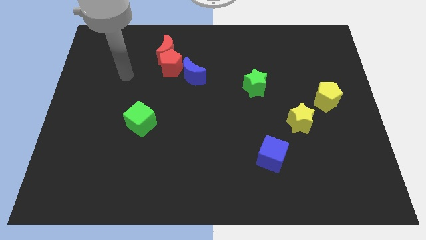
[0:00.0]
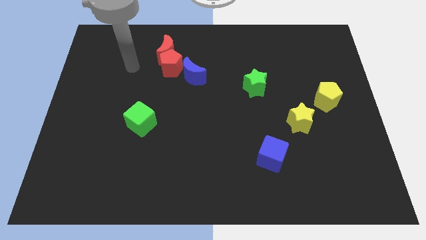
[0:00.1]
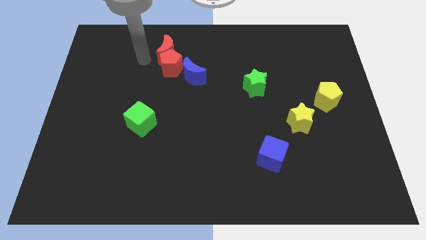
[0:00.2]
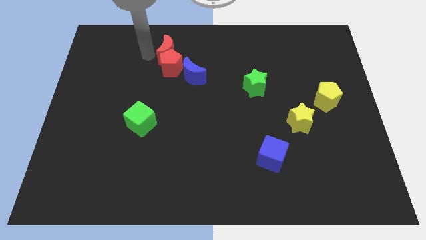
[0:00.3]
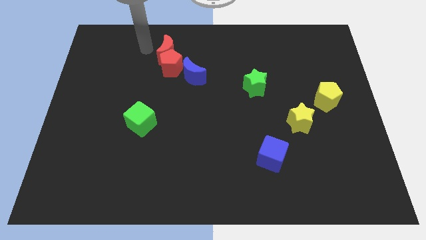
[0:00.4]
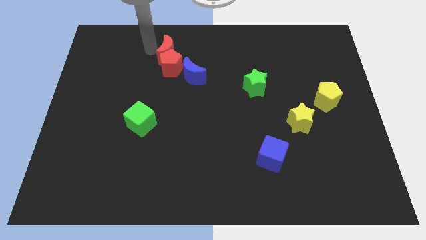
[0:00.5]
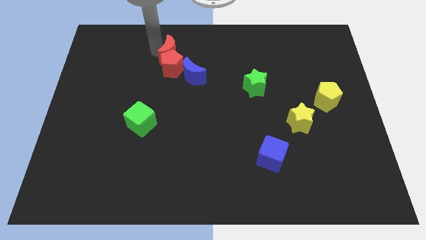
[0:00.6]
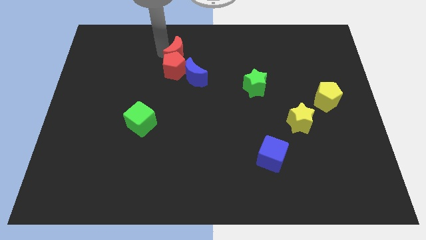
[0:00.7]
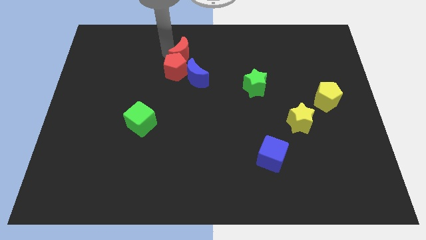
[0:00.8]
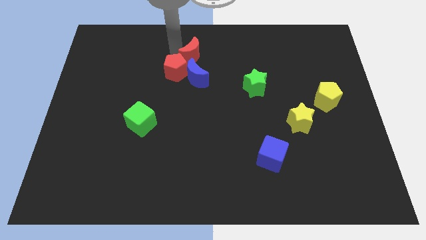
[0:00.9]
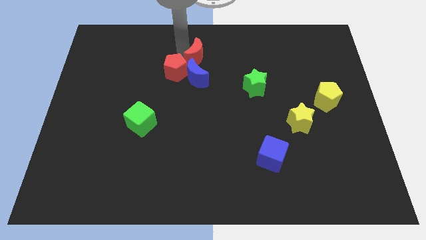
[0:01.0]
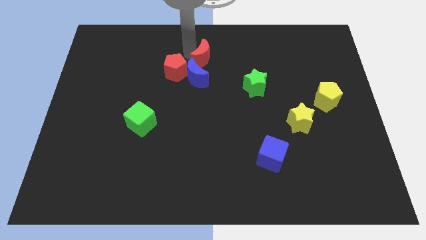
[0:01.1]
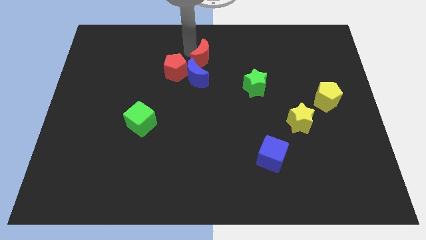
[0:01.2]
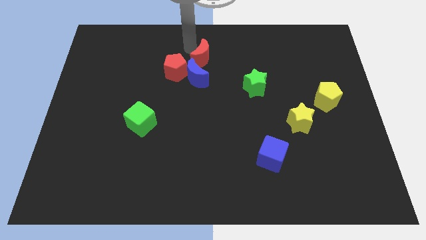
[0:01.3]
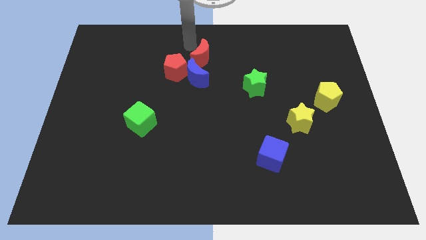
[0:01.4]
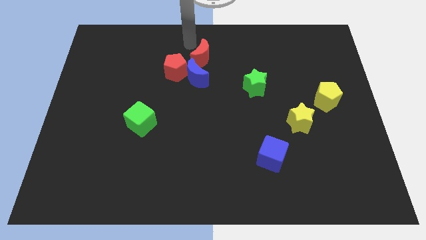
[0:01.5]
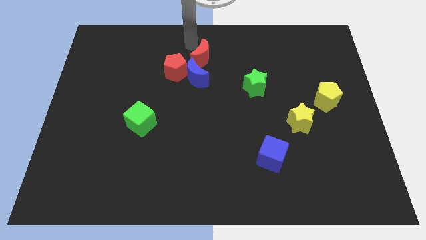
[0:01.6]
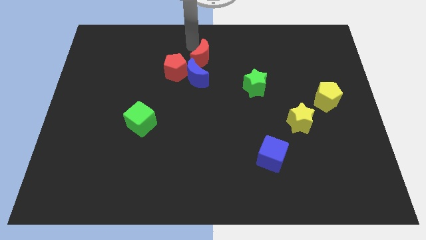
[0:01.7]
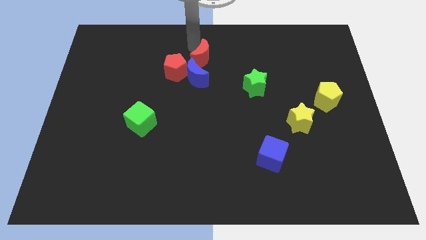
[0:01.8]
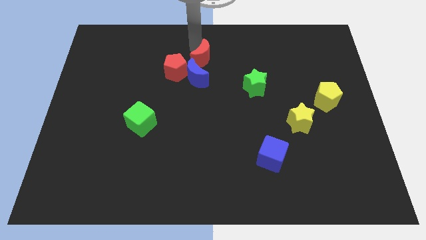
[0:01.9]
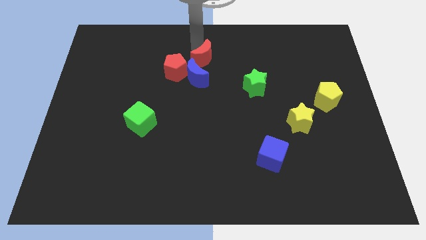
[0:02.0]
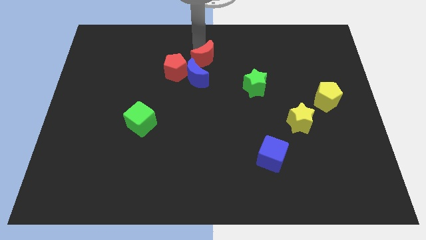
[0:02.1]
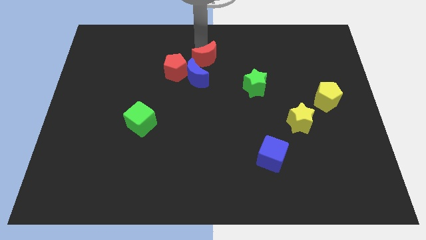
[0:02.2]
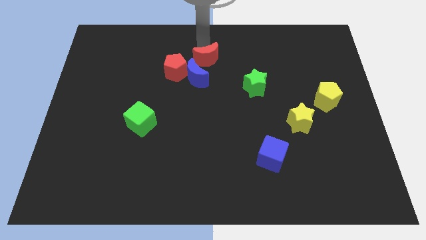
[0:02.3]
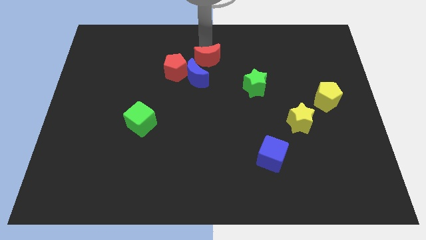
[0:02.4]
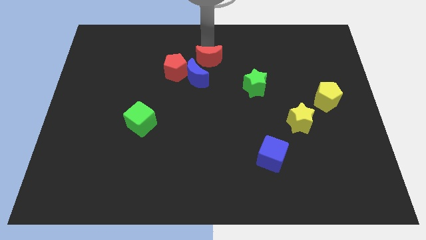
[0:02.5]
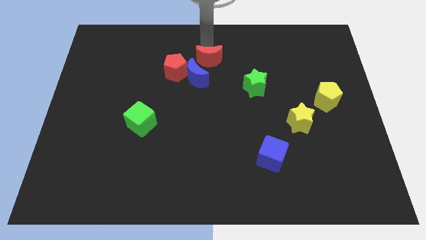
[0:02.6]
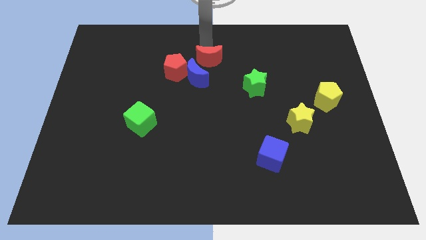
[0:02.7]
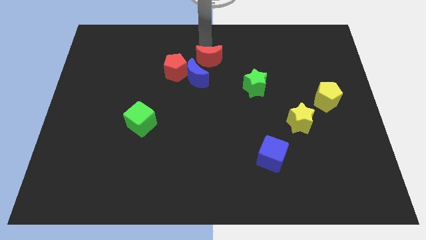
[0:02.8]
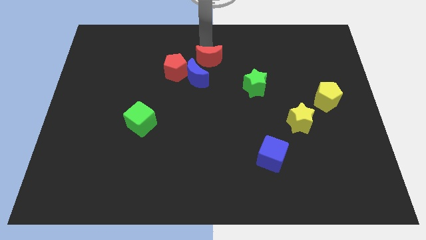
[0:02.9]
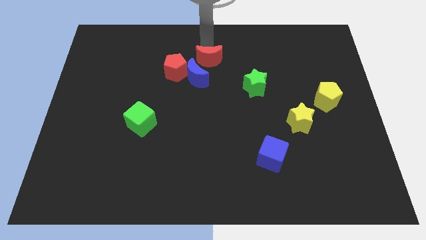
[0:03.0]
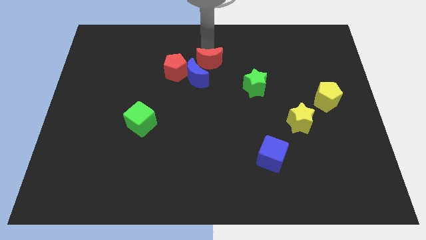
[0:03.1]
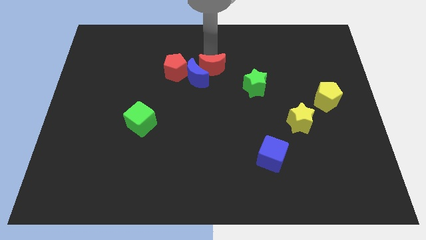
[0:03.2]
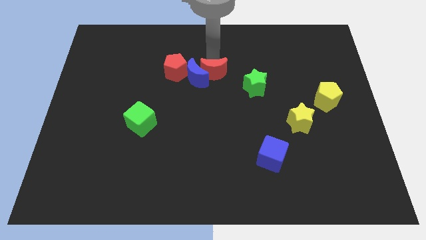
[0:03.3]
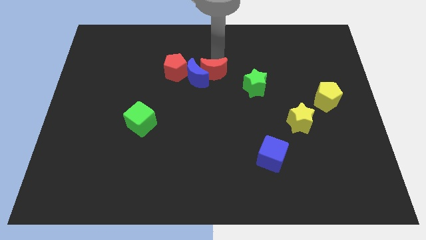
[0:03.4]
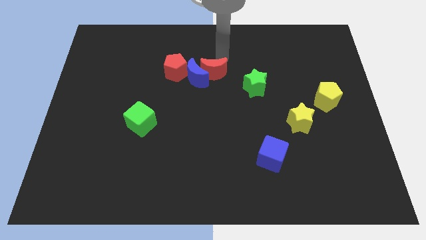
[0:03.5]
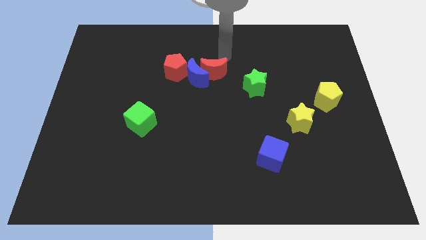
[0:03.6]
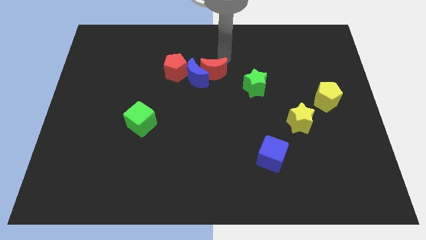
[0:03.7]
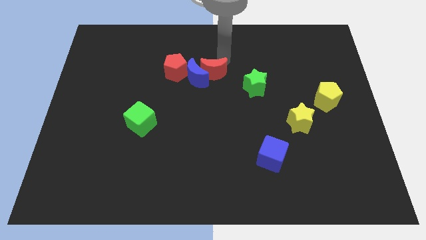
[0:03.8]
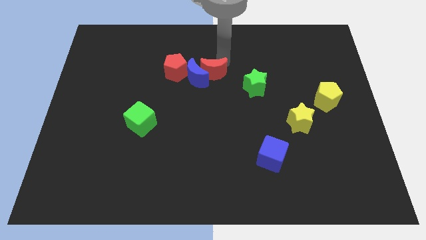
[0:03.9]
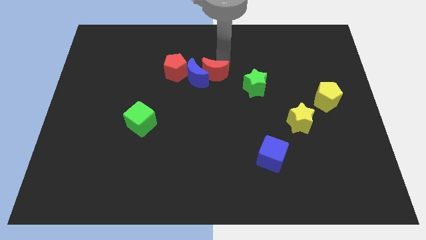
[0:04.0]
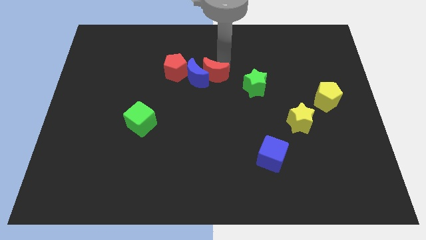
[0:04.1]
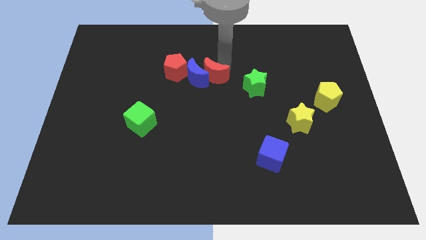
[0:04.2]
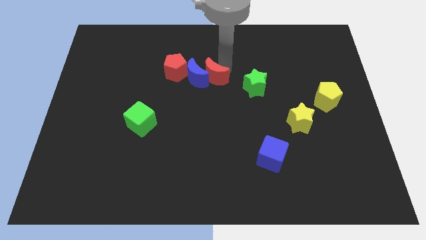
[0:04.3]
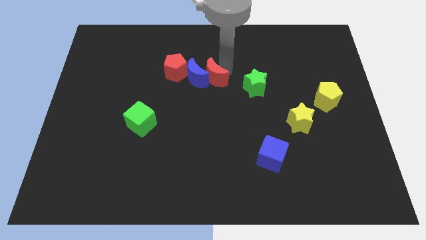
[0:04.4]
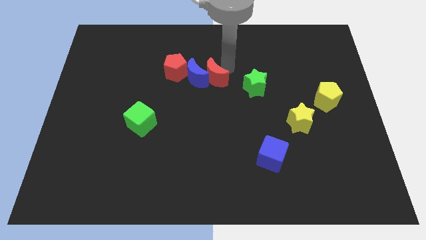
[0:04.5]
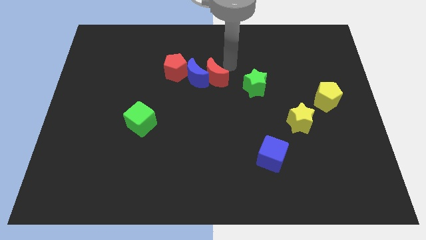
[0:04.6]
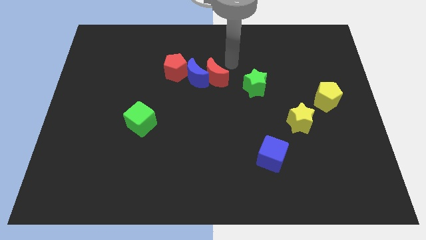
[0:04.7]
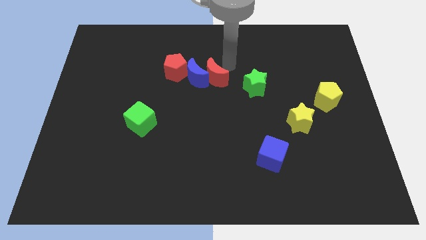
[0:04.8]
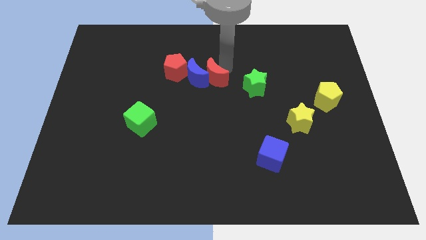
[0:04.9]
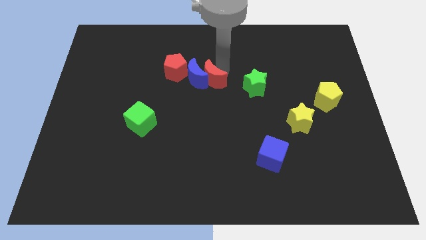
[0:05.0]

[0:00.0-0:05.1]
push the red moon to the bottom right side of the red pentagon

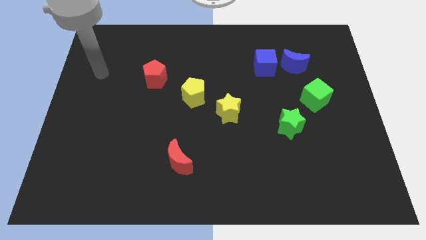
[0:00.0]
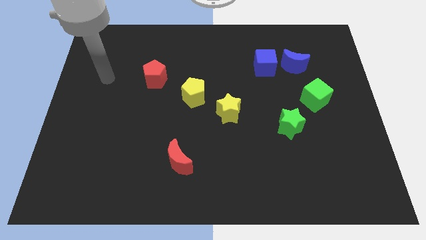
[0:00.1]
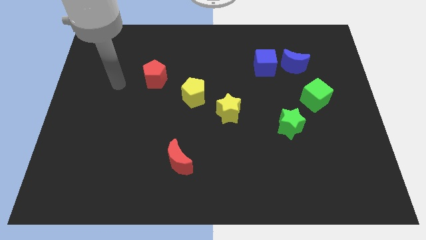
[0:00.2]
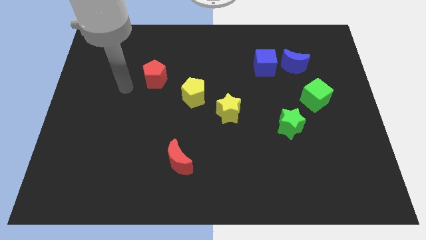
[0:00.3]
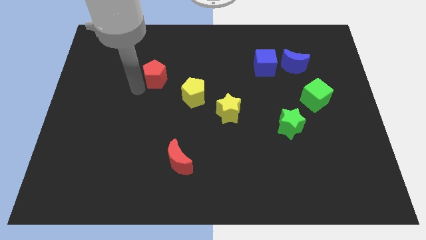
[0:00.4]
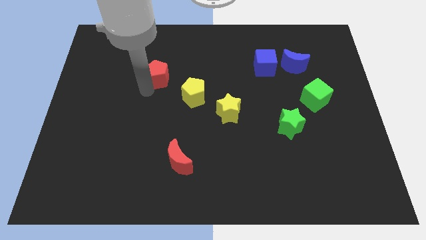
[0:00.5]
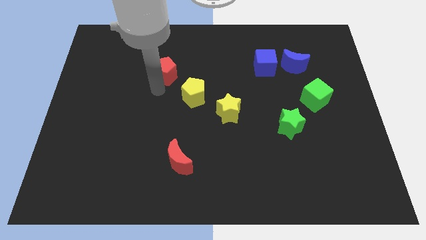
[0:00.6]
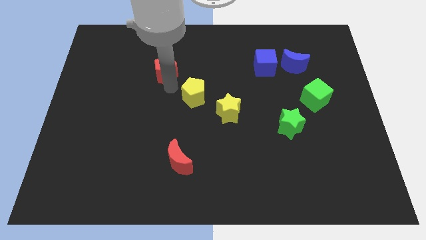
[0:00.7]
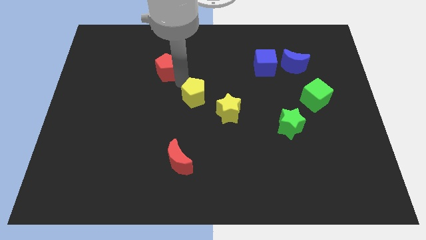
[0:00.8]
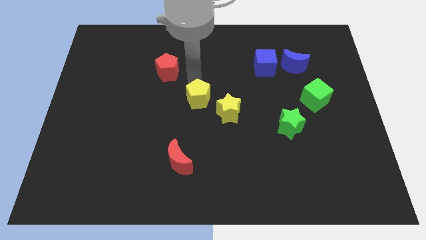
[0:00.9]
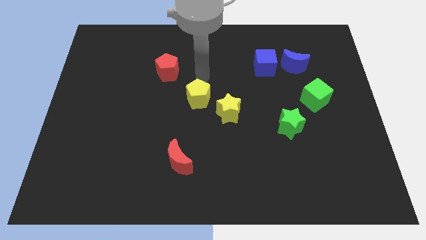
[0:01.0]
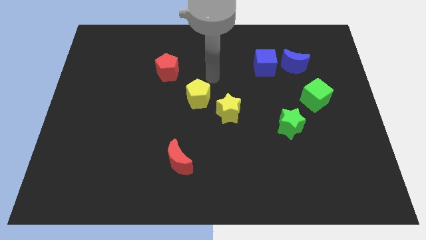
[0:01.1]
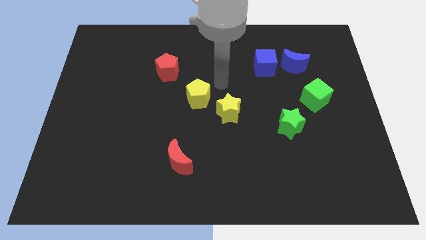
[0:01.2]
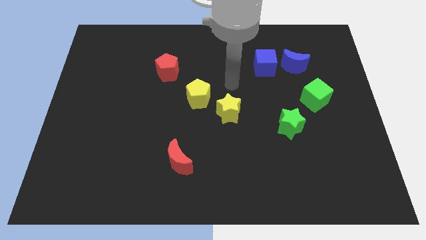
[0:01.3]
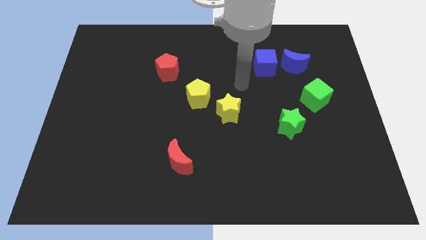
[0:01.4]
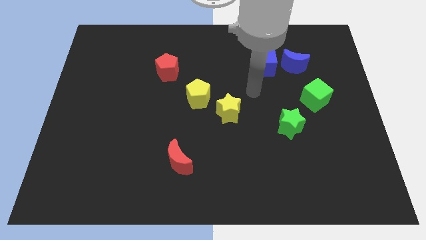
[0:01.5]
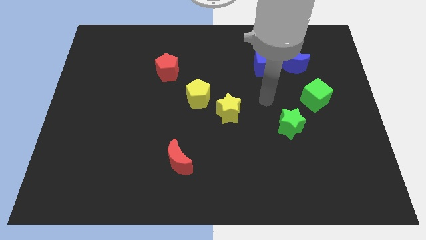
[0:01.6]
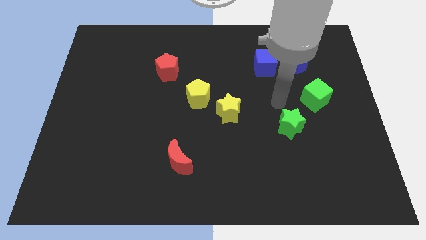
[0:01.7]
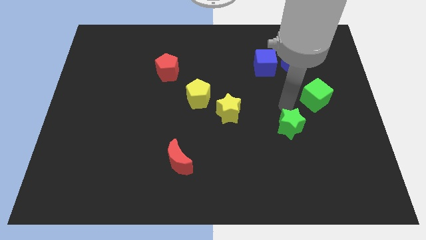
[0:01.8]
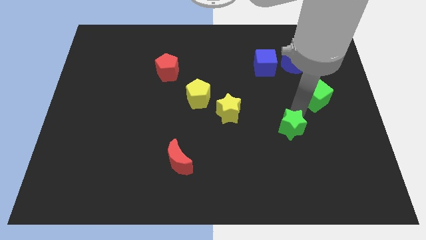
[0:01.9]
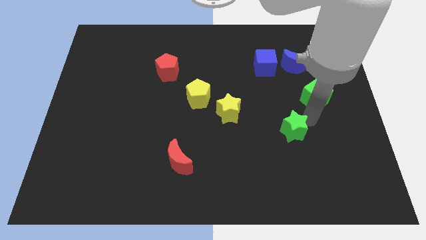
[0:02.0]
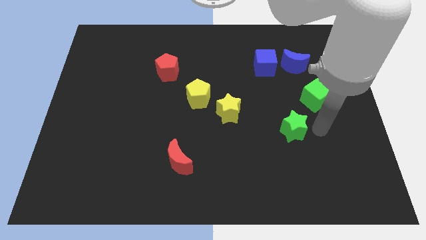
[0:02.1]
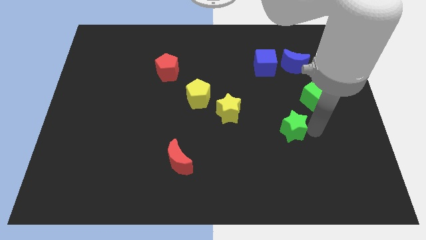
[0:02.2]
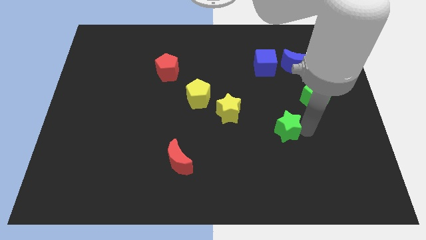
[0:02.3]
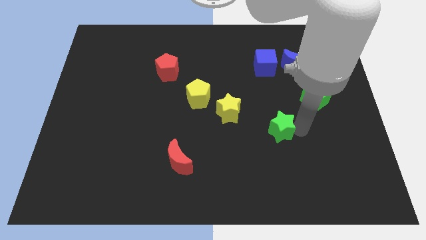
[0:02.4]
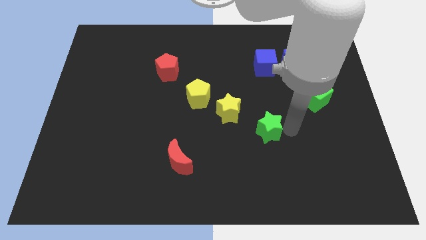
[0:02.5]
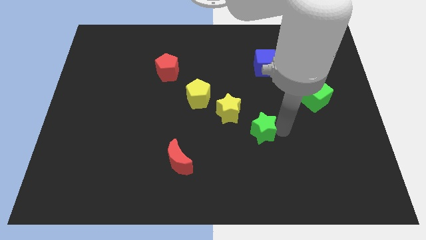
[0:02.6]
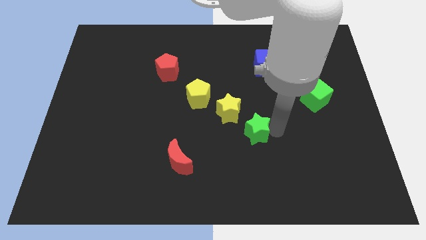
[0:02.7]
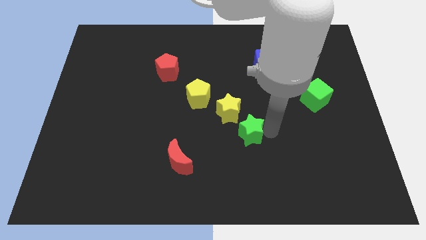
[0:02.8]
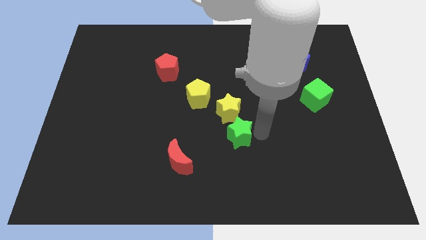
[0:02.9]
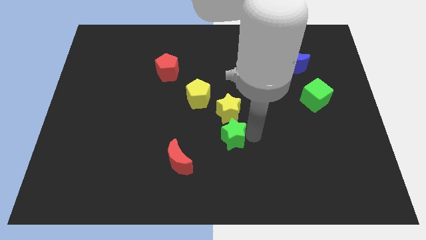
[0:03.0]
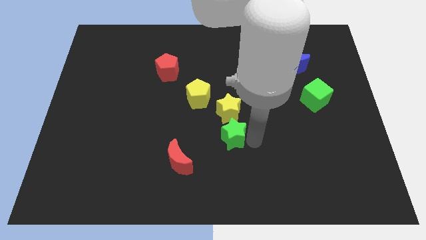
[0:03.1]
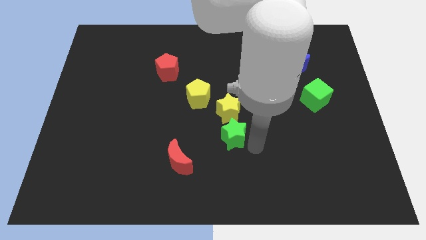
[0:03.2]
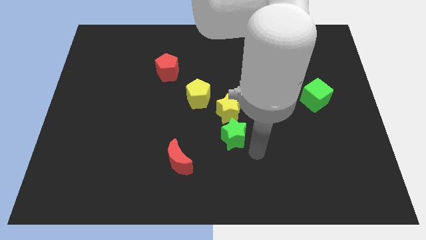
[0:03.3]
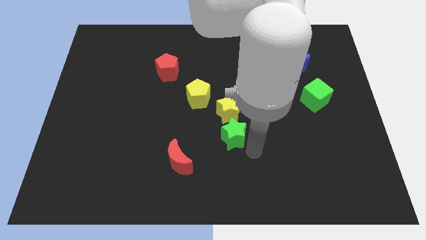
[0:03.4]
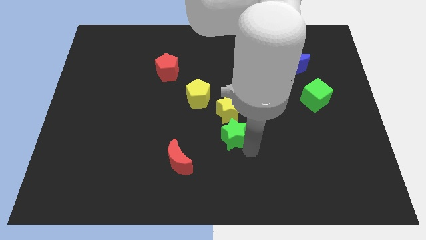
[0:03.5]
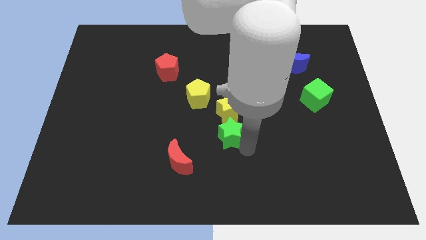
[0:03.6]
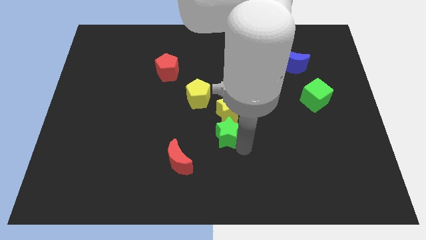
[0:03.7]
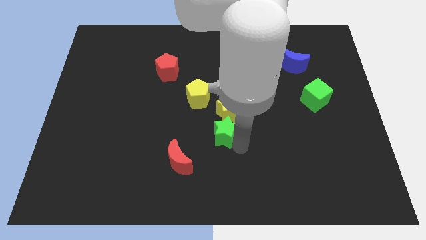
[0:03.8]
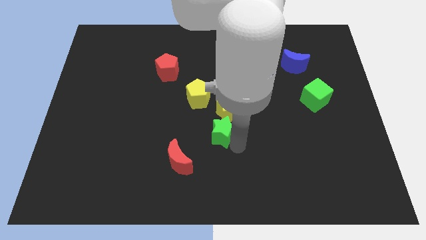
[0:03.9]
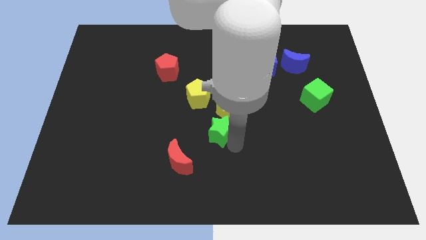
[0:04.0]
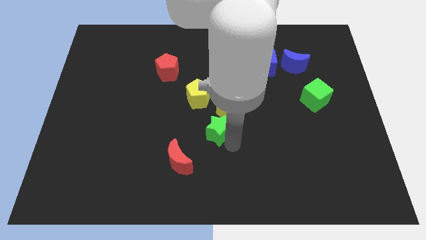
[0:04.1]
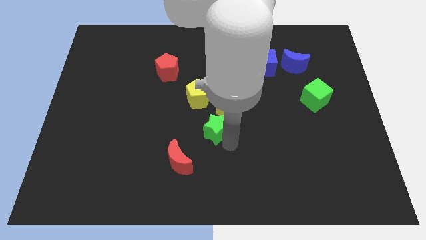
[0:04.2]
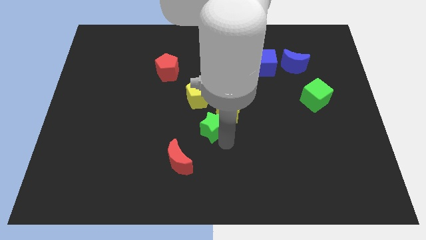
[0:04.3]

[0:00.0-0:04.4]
push the green star left of the yellow star
